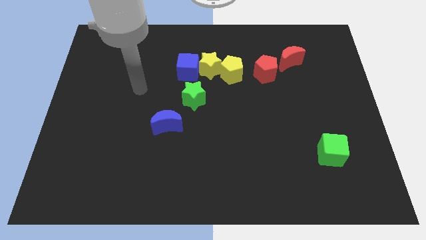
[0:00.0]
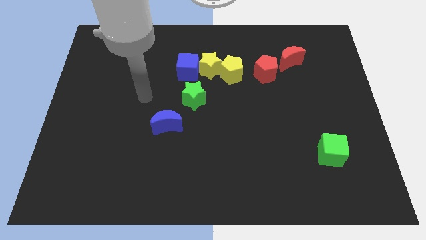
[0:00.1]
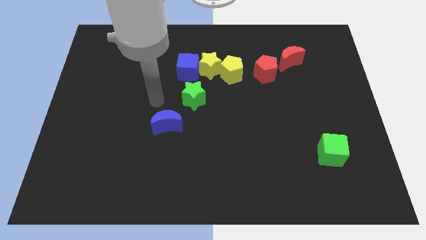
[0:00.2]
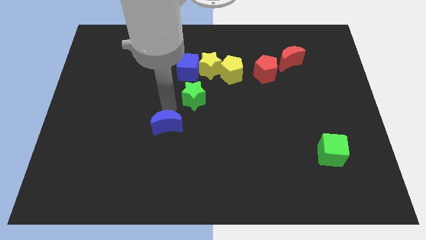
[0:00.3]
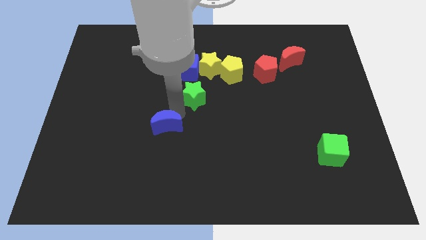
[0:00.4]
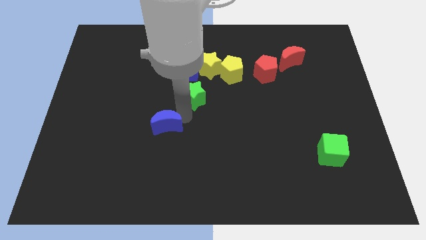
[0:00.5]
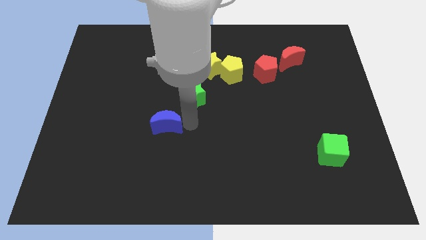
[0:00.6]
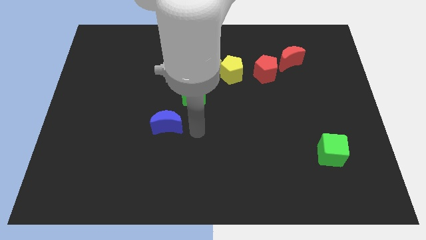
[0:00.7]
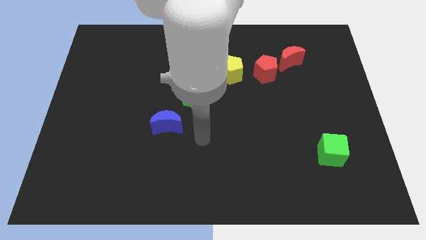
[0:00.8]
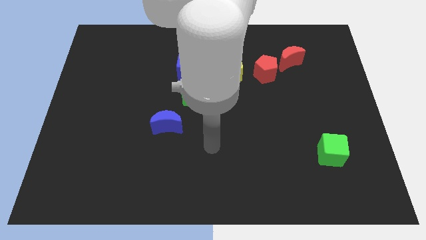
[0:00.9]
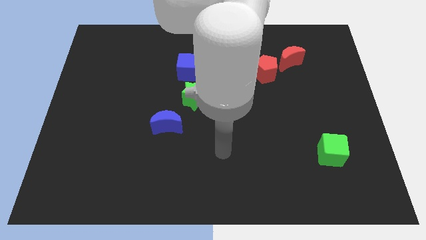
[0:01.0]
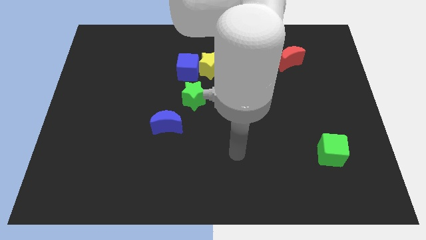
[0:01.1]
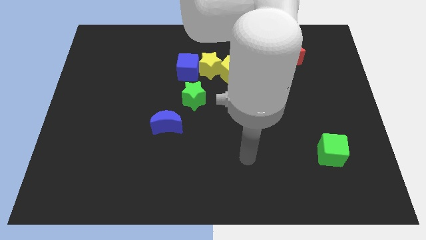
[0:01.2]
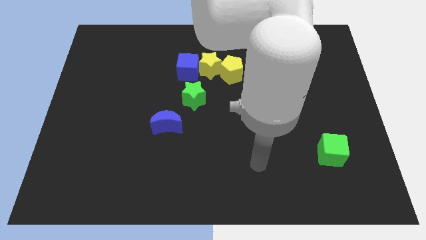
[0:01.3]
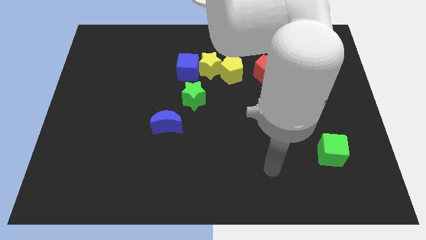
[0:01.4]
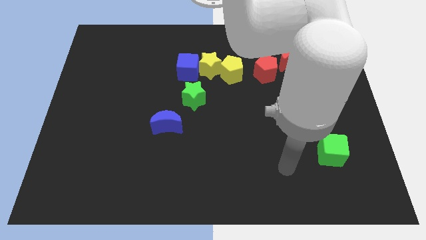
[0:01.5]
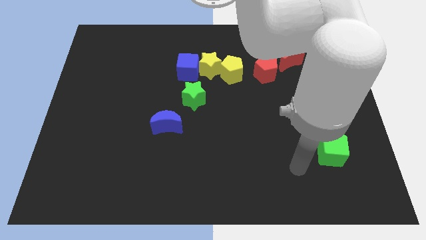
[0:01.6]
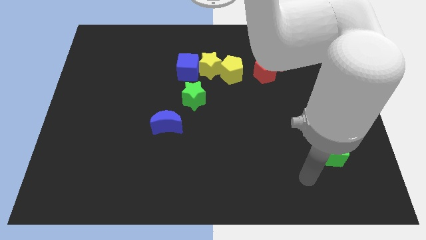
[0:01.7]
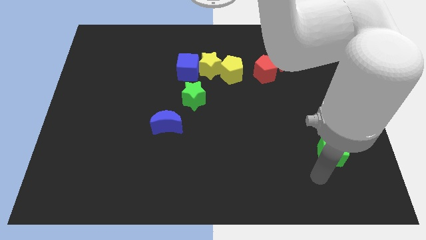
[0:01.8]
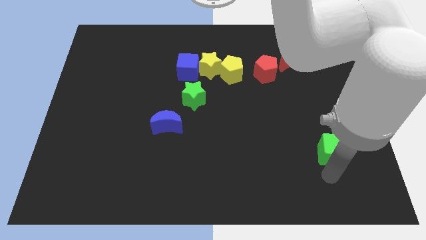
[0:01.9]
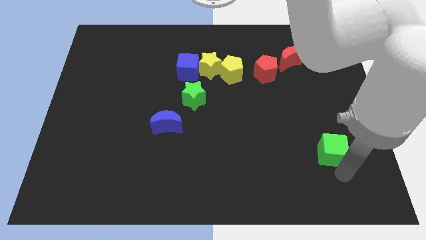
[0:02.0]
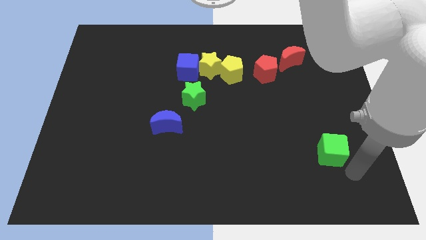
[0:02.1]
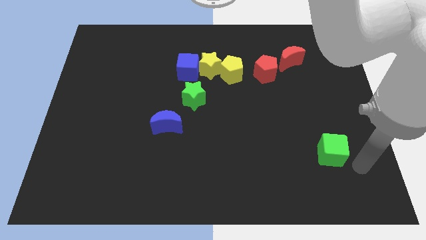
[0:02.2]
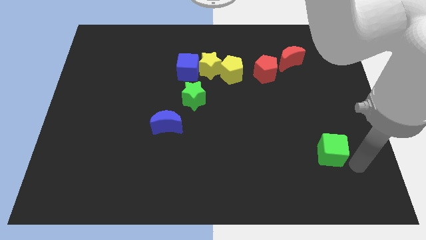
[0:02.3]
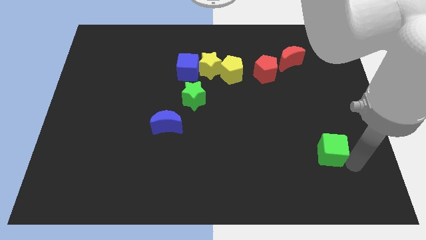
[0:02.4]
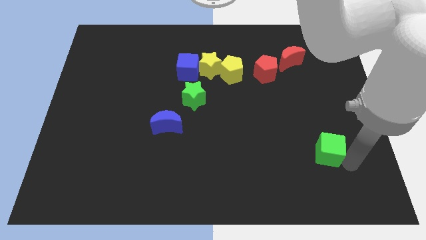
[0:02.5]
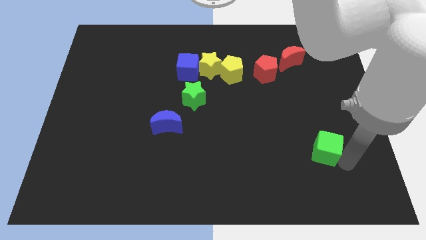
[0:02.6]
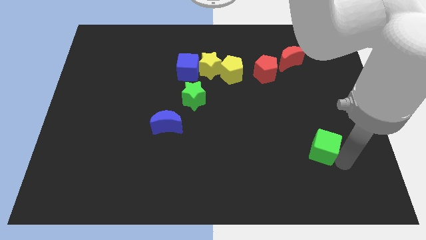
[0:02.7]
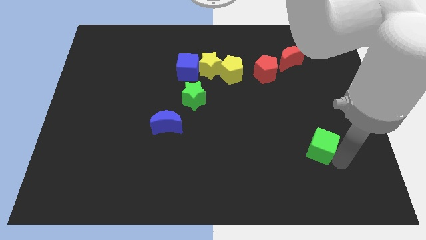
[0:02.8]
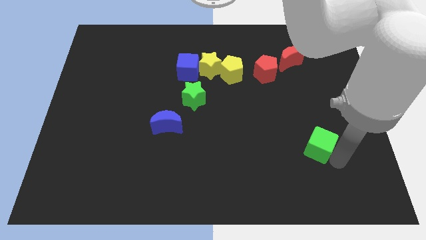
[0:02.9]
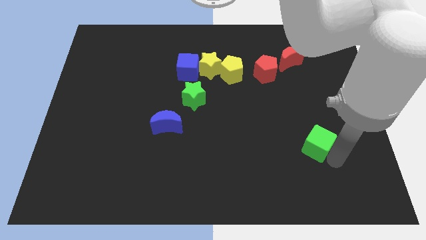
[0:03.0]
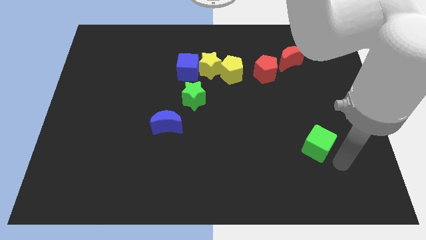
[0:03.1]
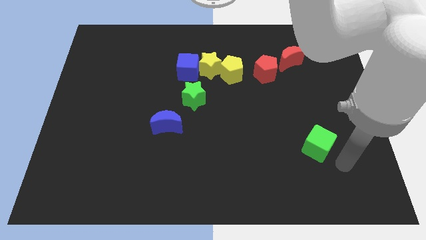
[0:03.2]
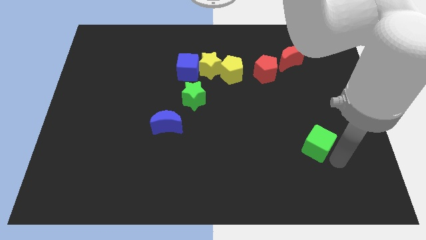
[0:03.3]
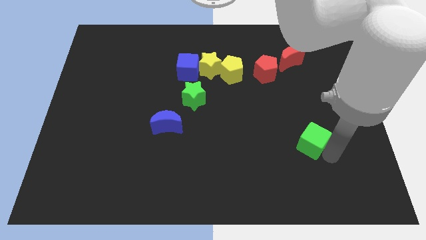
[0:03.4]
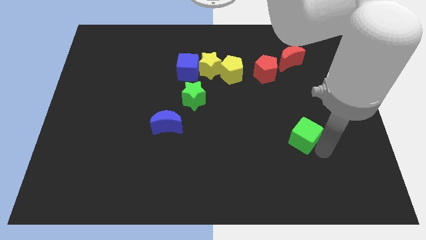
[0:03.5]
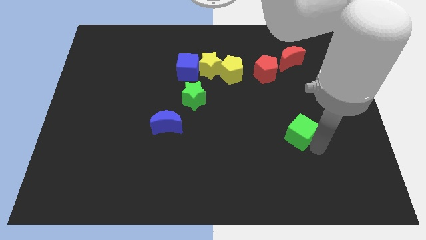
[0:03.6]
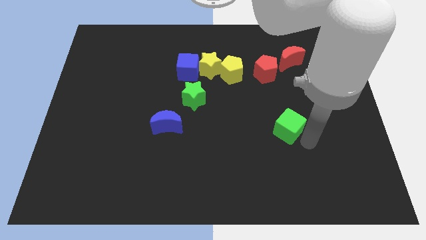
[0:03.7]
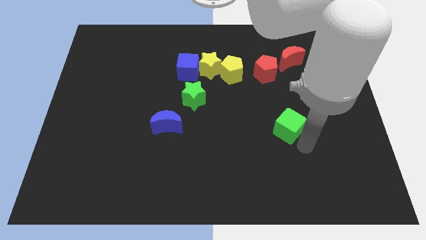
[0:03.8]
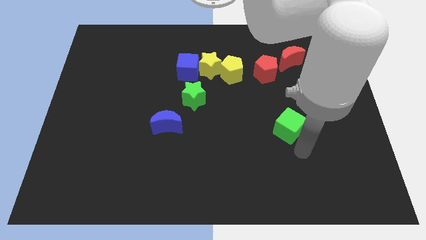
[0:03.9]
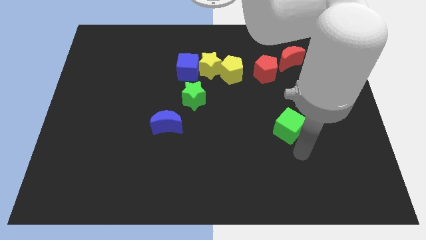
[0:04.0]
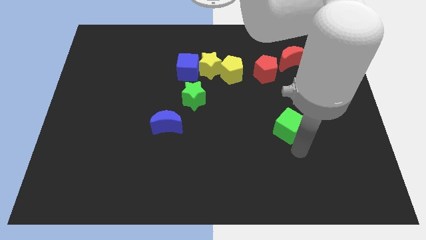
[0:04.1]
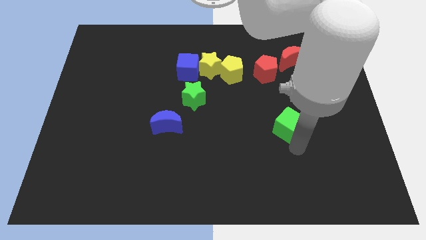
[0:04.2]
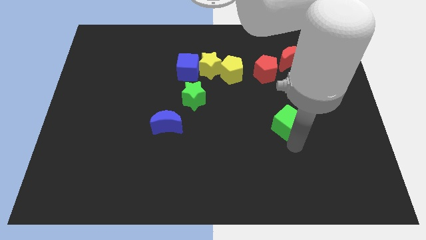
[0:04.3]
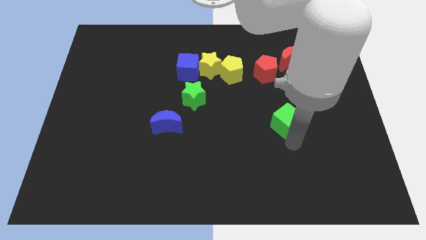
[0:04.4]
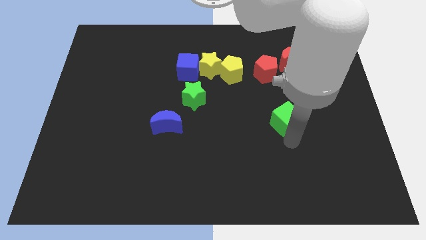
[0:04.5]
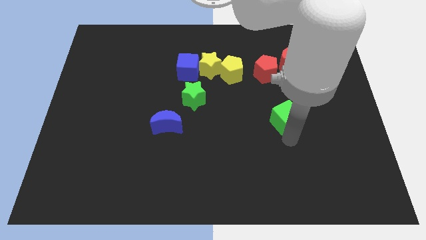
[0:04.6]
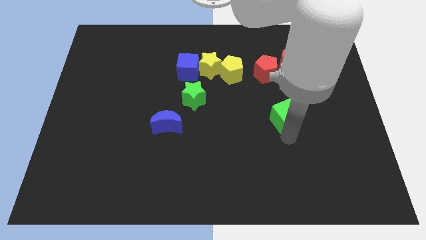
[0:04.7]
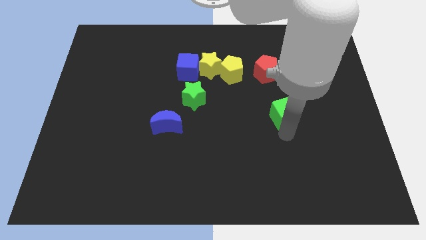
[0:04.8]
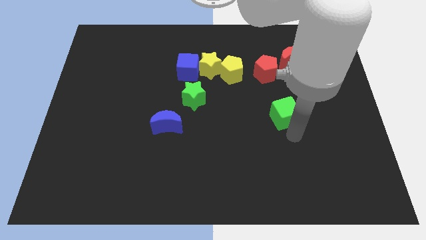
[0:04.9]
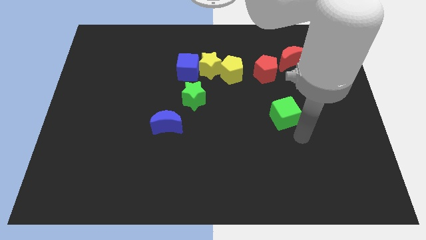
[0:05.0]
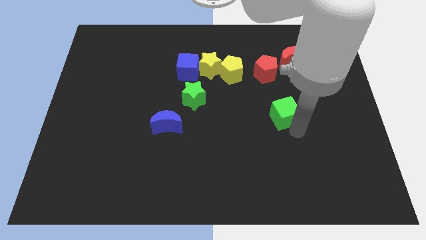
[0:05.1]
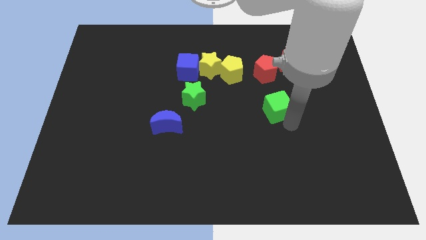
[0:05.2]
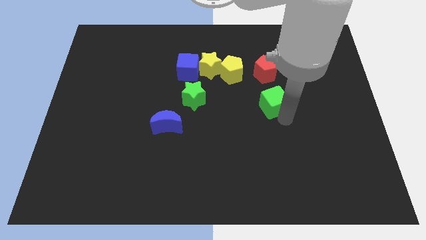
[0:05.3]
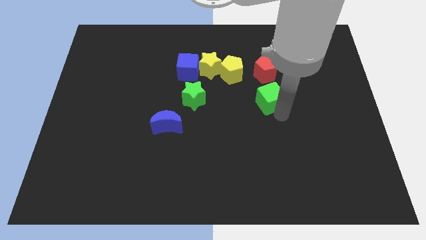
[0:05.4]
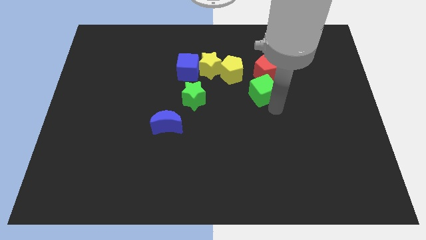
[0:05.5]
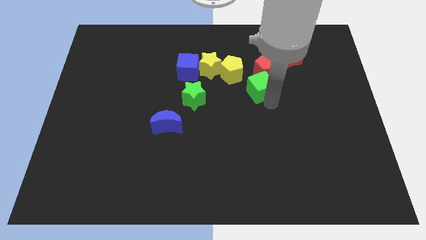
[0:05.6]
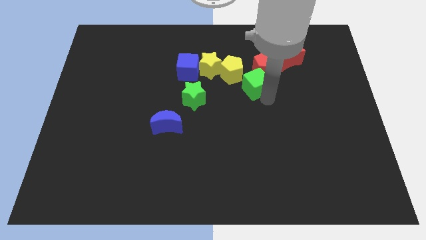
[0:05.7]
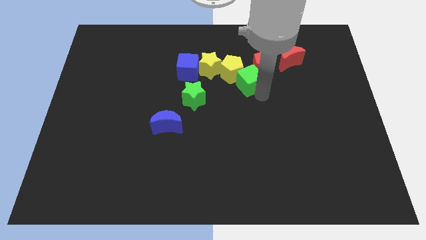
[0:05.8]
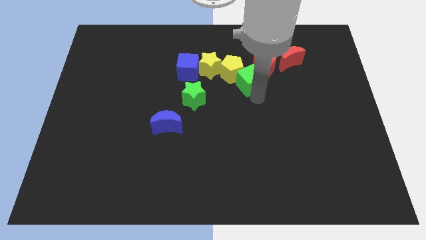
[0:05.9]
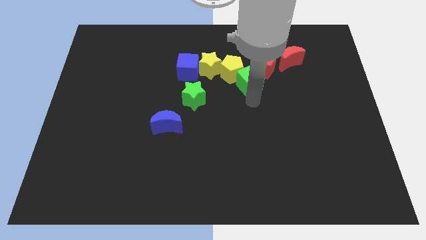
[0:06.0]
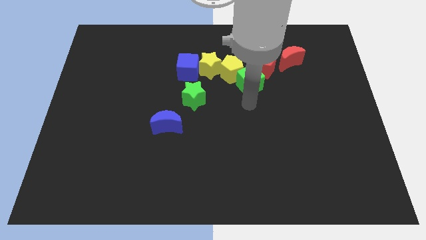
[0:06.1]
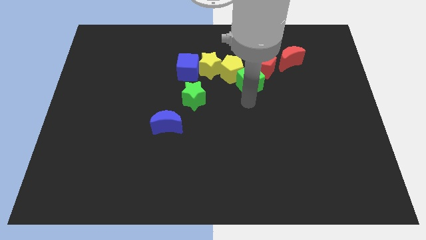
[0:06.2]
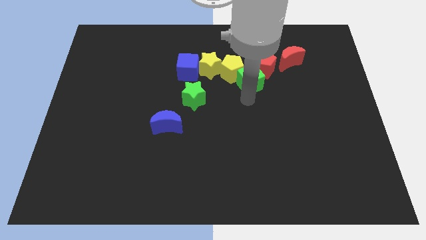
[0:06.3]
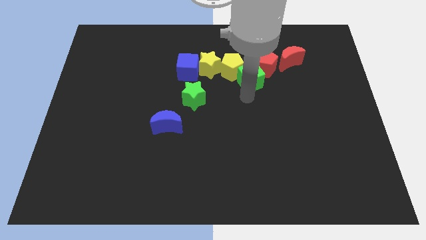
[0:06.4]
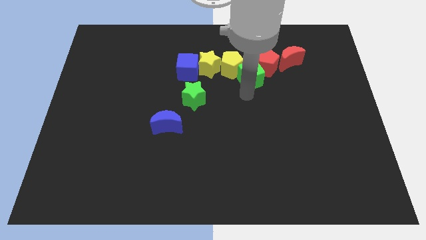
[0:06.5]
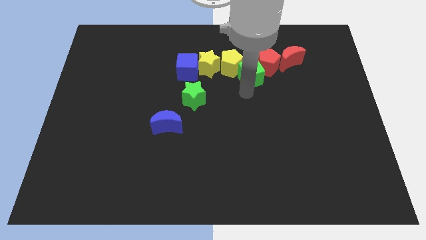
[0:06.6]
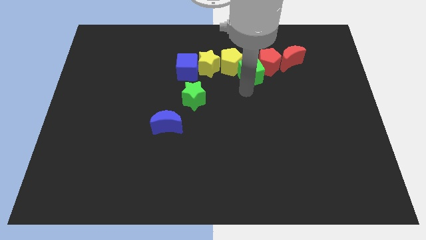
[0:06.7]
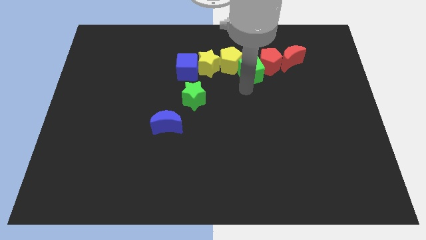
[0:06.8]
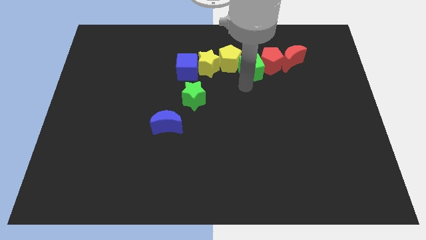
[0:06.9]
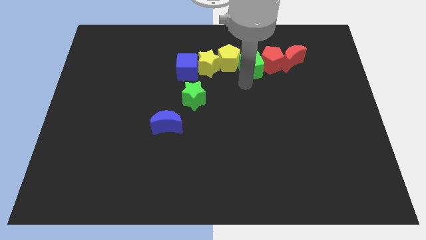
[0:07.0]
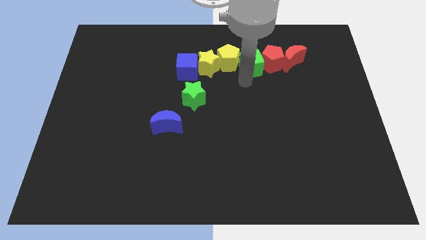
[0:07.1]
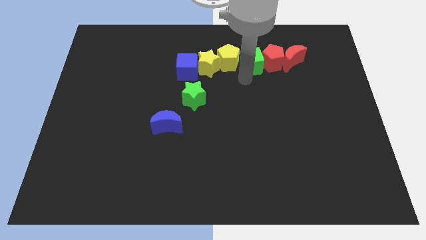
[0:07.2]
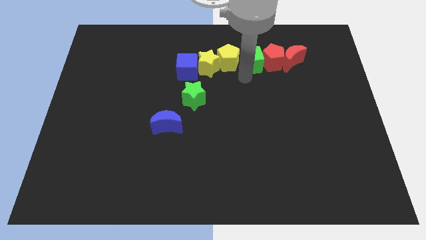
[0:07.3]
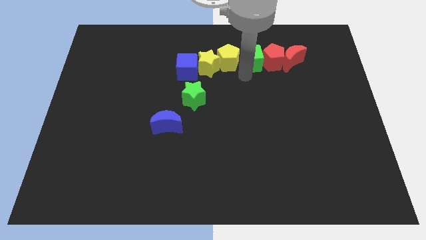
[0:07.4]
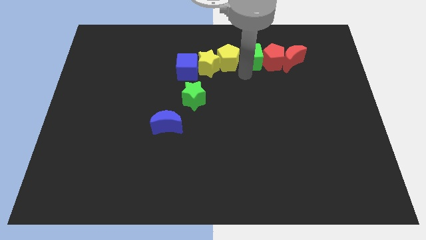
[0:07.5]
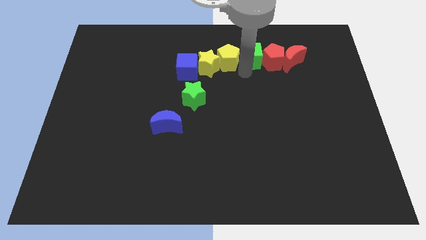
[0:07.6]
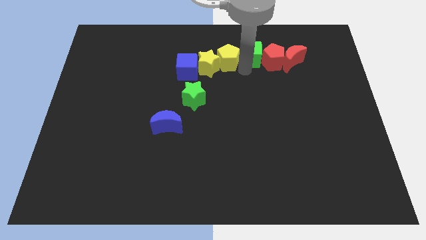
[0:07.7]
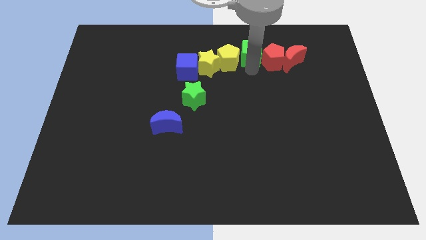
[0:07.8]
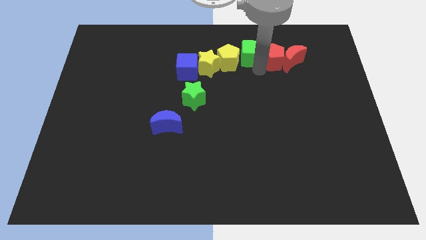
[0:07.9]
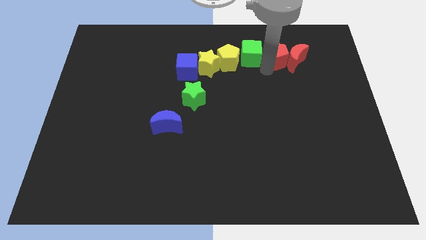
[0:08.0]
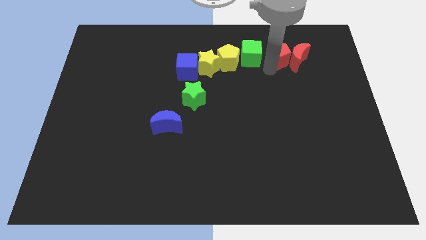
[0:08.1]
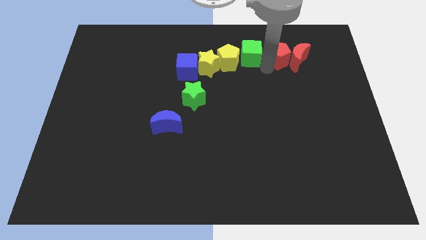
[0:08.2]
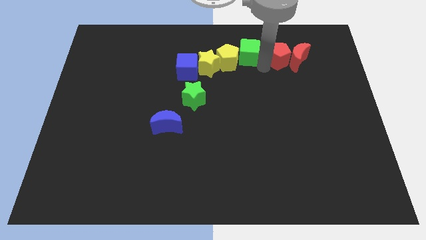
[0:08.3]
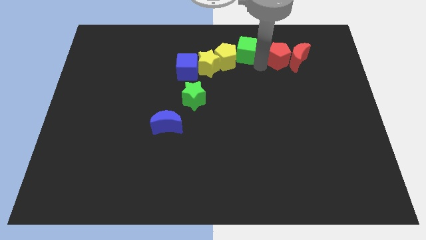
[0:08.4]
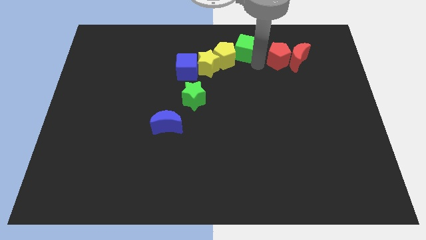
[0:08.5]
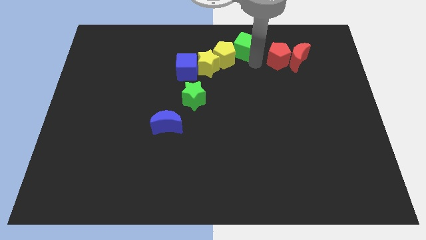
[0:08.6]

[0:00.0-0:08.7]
put the green cube to the top
